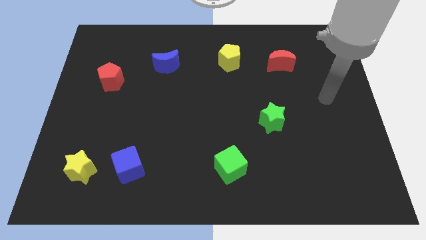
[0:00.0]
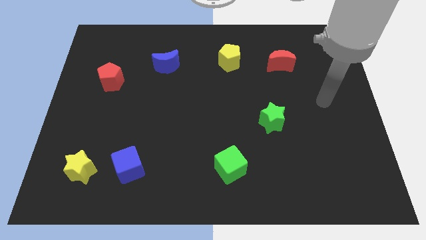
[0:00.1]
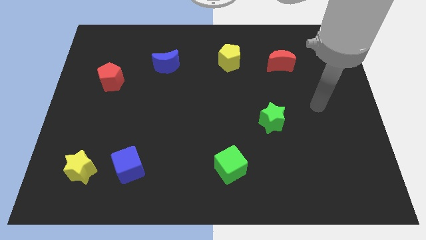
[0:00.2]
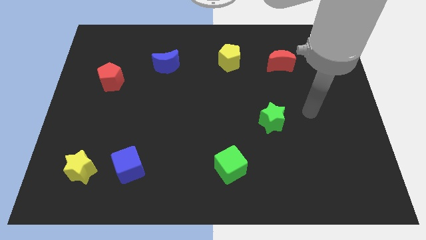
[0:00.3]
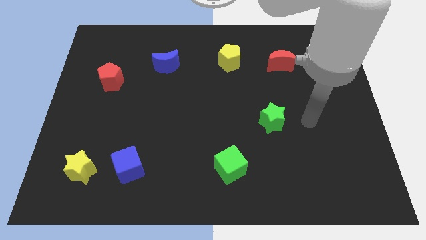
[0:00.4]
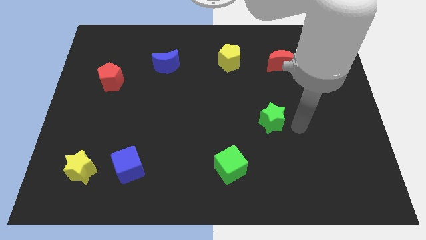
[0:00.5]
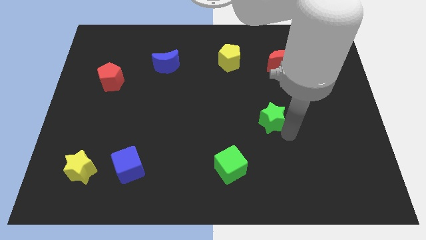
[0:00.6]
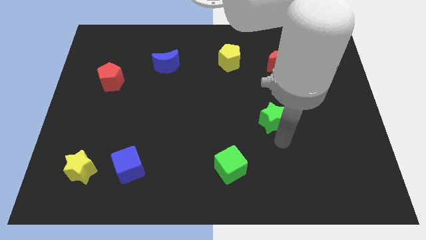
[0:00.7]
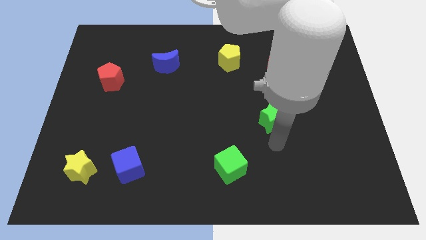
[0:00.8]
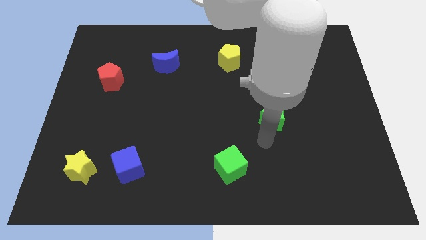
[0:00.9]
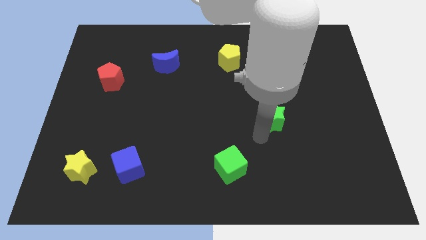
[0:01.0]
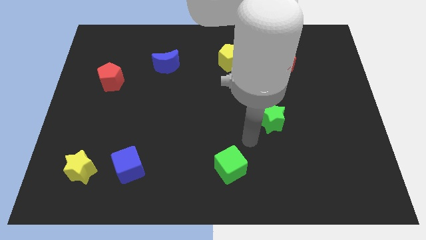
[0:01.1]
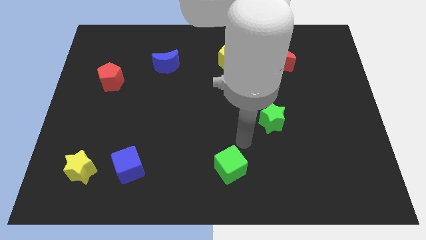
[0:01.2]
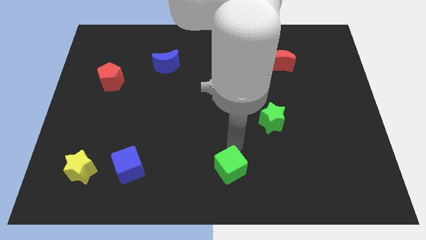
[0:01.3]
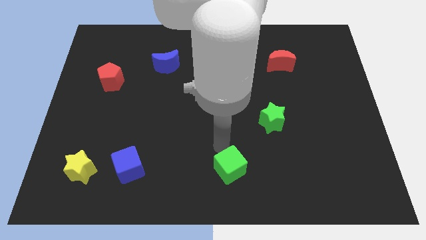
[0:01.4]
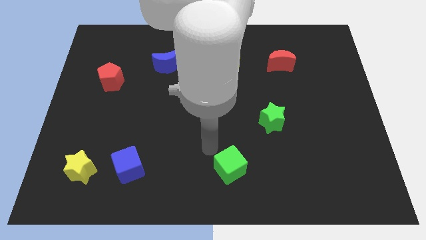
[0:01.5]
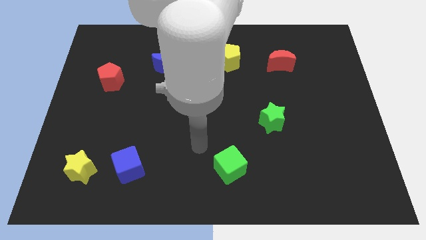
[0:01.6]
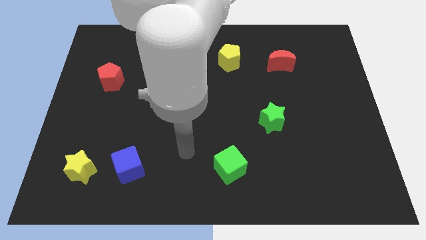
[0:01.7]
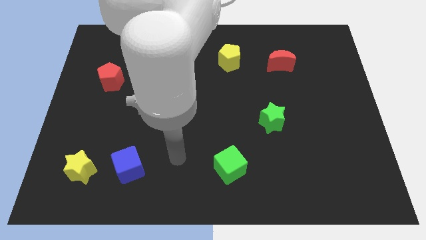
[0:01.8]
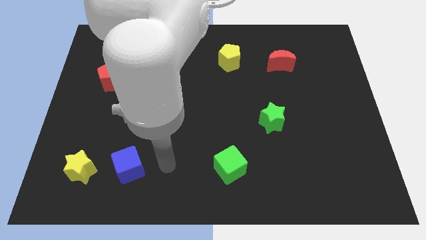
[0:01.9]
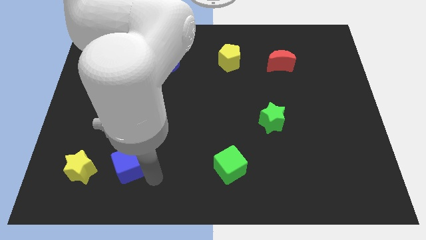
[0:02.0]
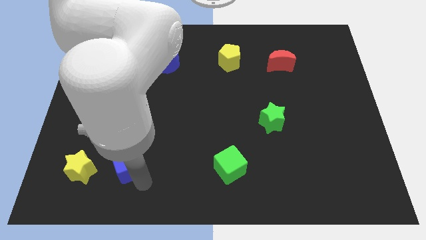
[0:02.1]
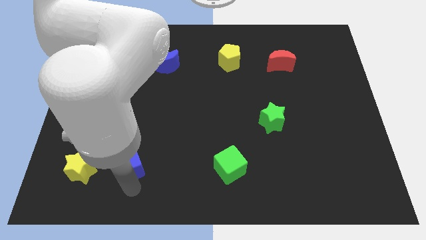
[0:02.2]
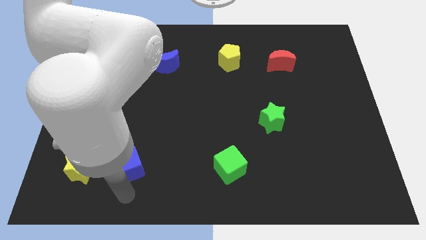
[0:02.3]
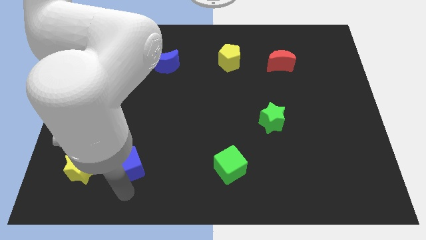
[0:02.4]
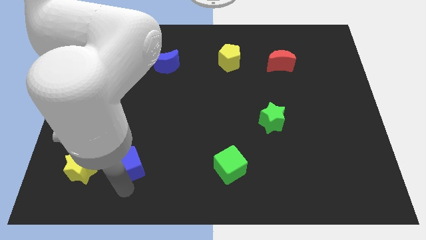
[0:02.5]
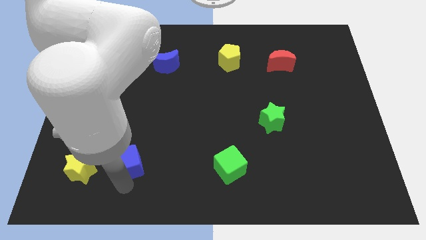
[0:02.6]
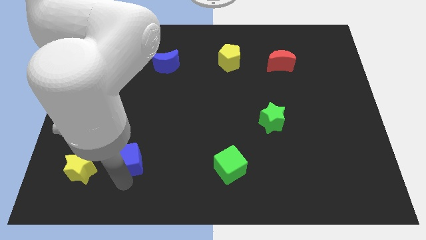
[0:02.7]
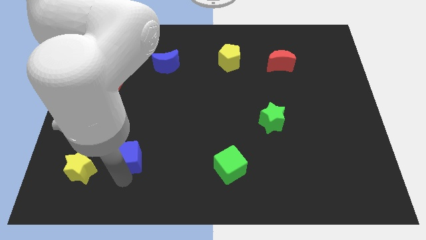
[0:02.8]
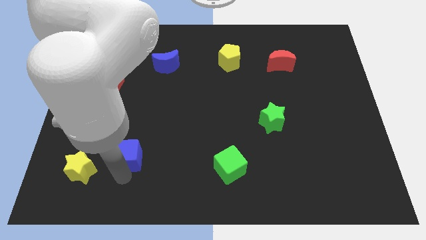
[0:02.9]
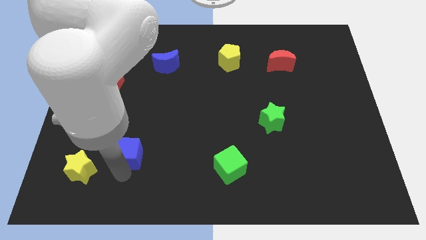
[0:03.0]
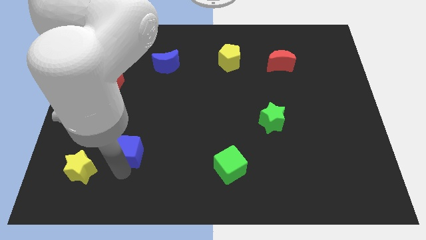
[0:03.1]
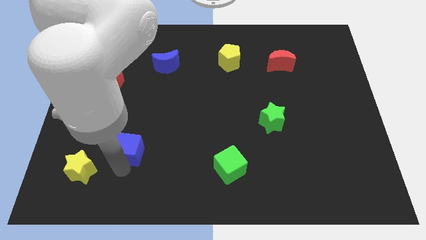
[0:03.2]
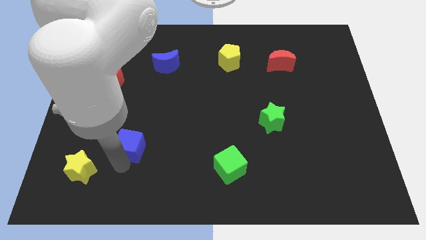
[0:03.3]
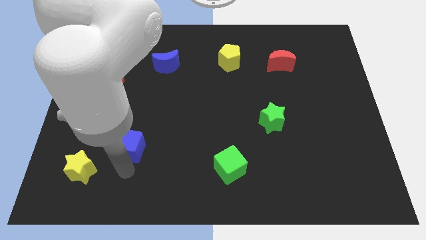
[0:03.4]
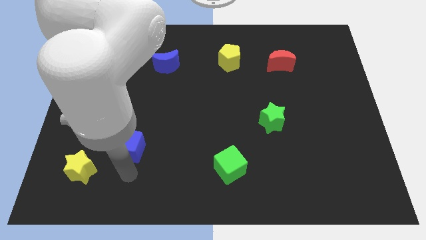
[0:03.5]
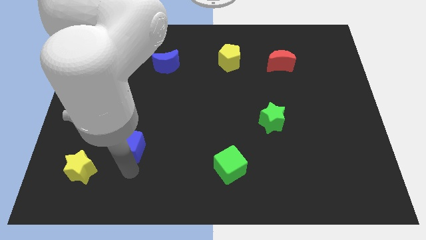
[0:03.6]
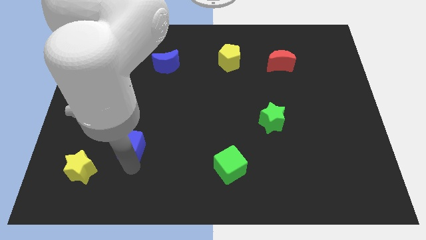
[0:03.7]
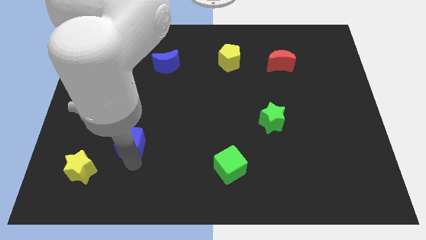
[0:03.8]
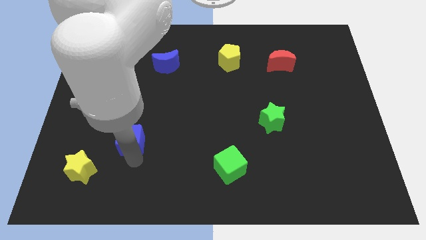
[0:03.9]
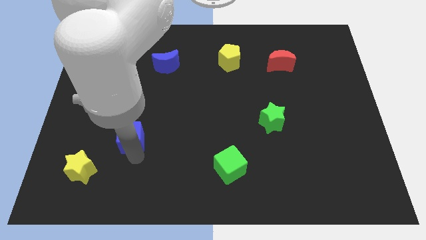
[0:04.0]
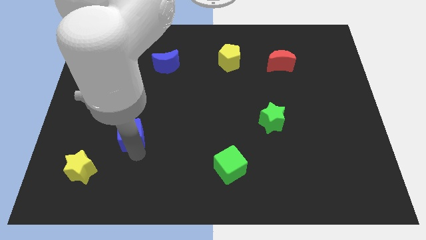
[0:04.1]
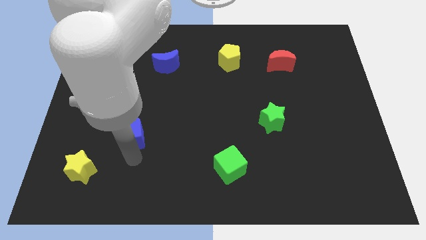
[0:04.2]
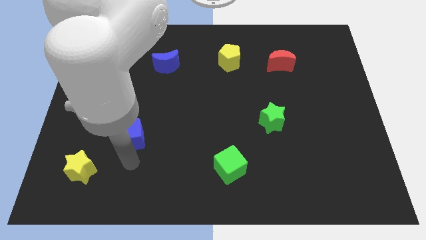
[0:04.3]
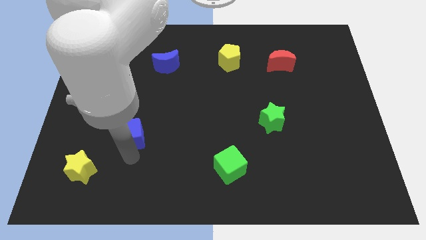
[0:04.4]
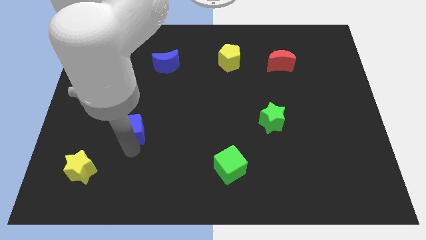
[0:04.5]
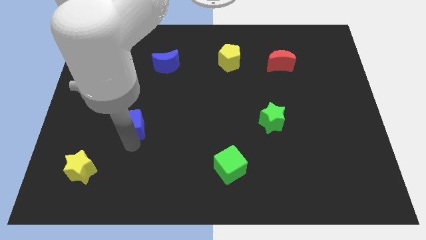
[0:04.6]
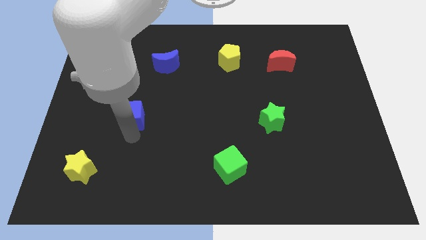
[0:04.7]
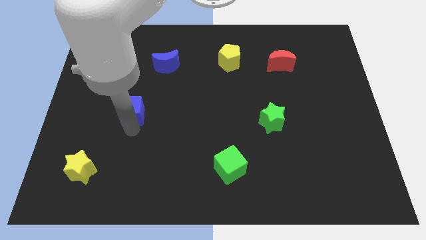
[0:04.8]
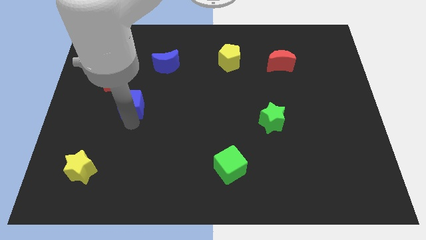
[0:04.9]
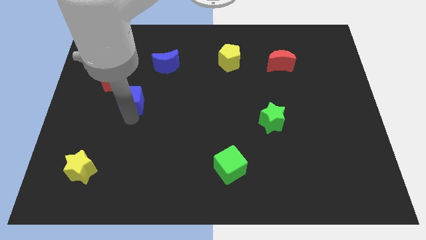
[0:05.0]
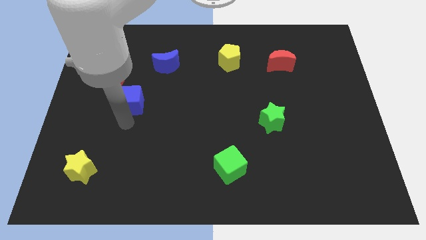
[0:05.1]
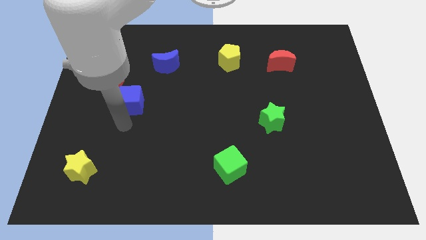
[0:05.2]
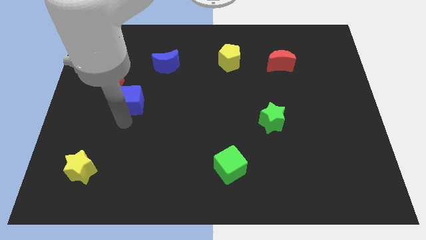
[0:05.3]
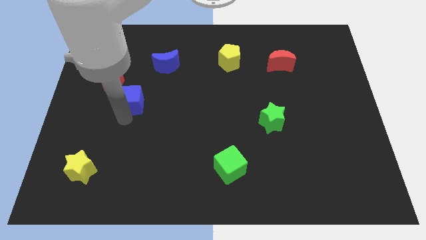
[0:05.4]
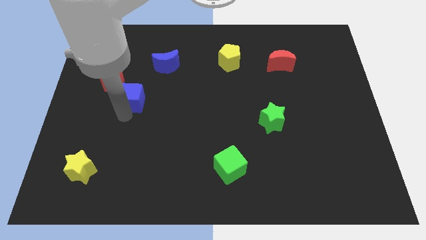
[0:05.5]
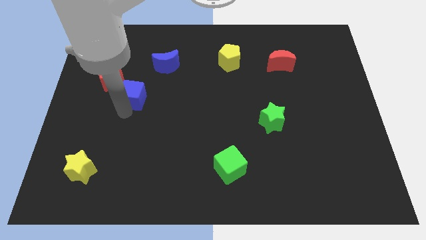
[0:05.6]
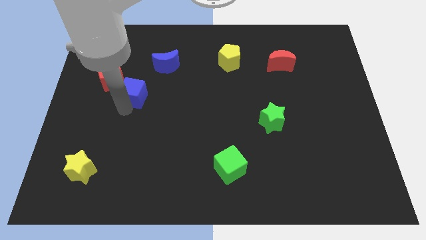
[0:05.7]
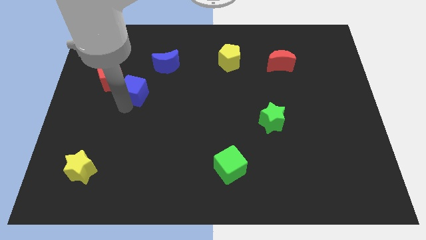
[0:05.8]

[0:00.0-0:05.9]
slide the blue cube up

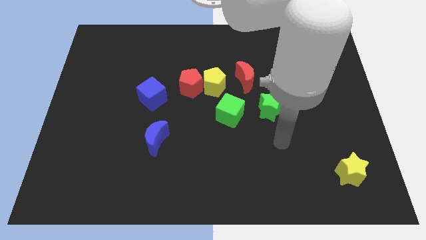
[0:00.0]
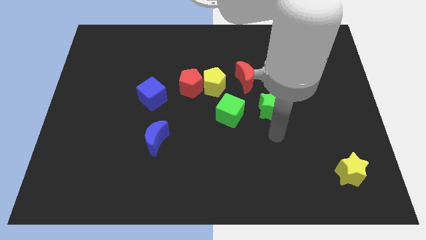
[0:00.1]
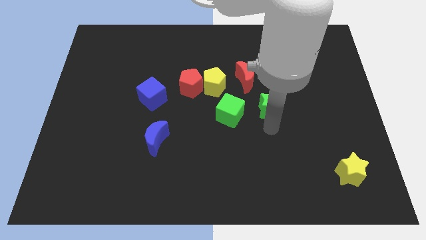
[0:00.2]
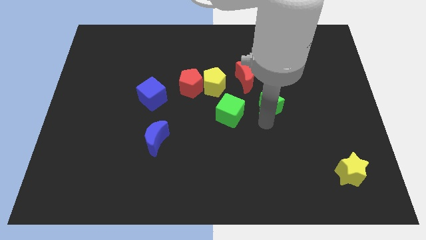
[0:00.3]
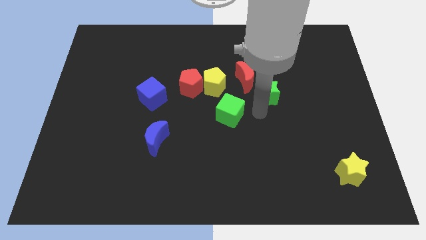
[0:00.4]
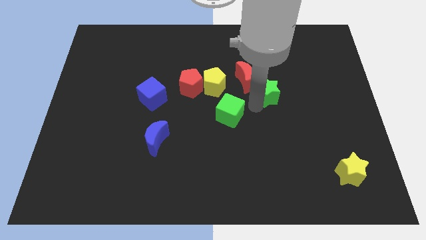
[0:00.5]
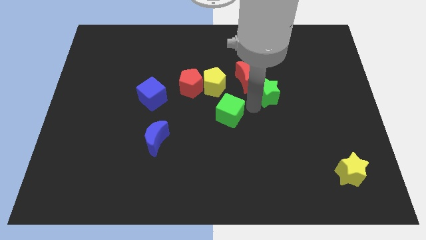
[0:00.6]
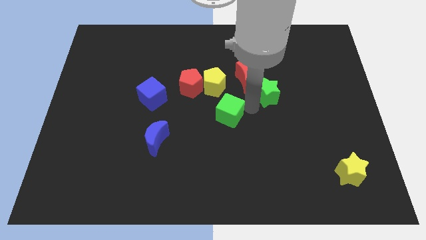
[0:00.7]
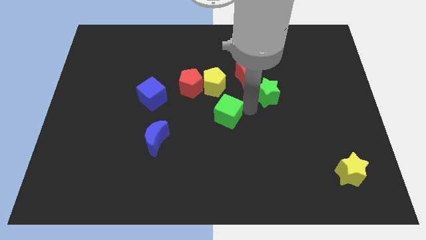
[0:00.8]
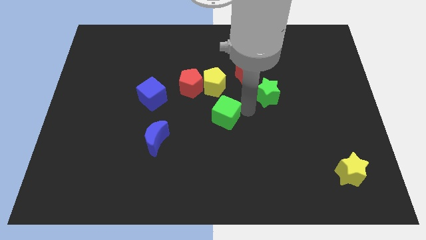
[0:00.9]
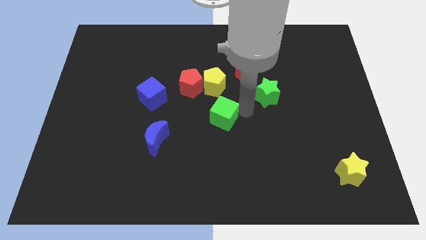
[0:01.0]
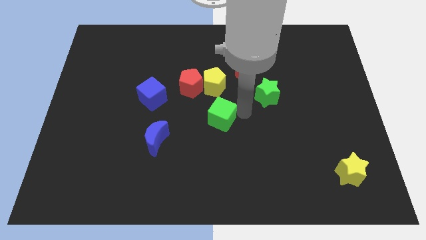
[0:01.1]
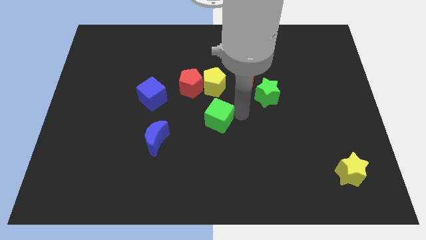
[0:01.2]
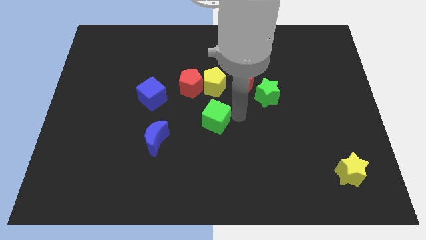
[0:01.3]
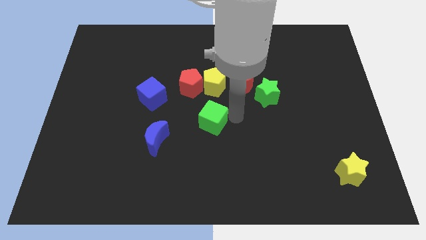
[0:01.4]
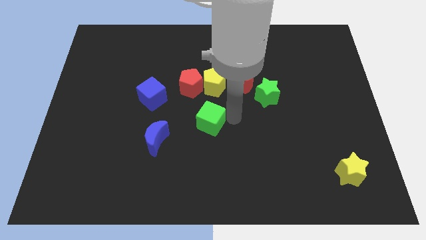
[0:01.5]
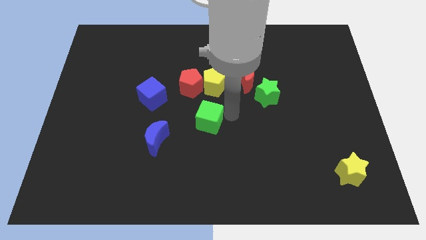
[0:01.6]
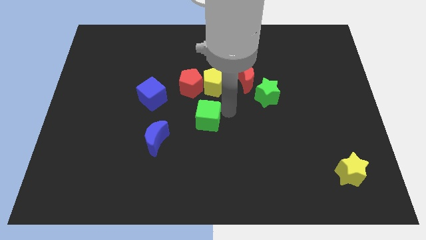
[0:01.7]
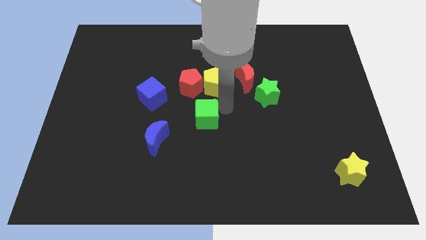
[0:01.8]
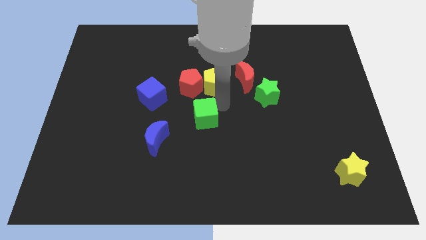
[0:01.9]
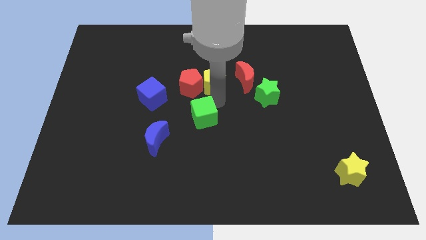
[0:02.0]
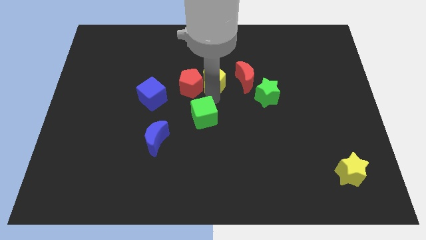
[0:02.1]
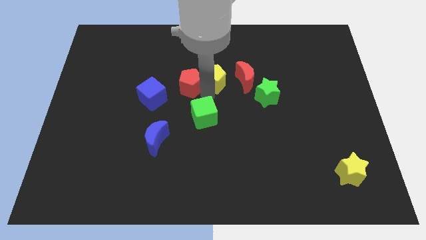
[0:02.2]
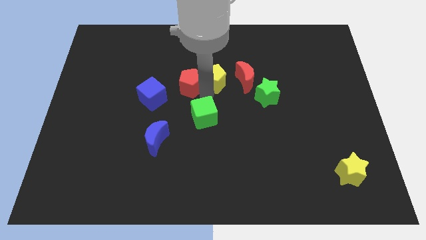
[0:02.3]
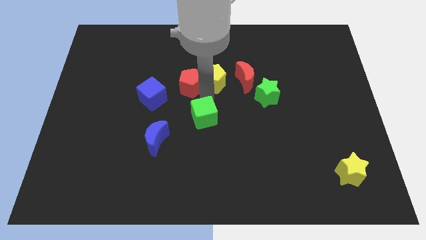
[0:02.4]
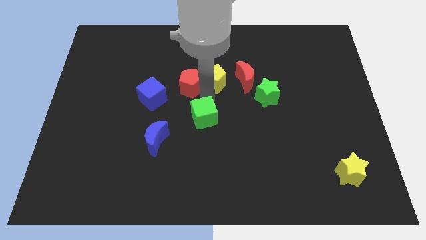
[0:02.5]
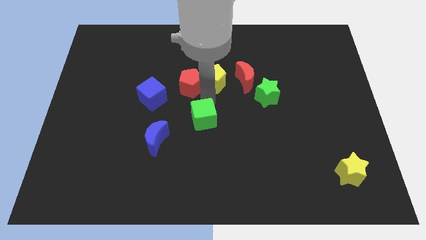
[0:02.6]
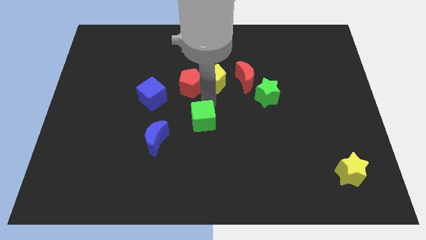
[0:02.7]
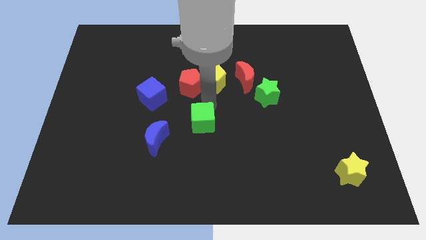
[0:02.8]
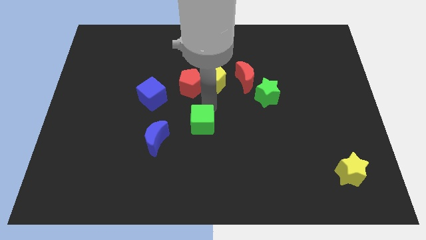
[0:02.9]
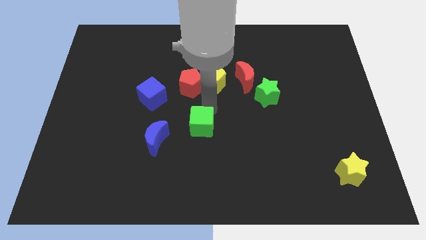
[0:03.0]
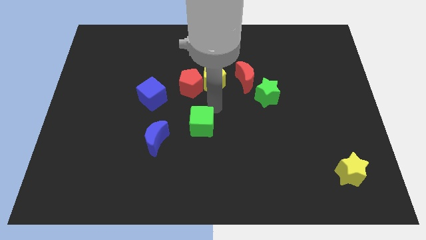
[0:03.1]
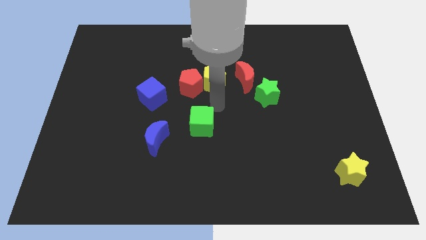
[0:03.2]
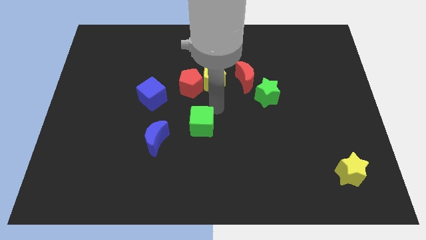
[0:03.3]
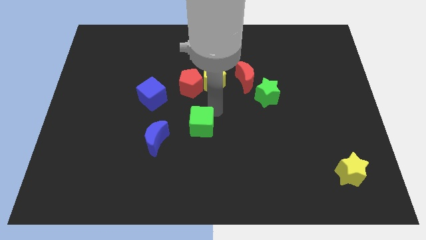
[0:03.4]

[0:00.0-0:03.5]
move the green cube a little bit downwards and left
